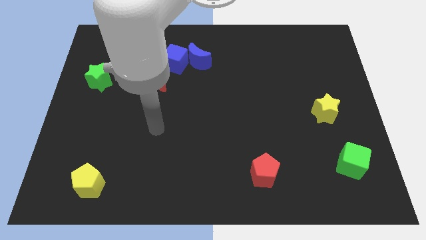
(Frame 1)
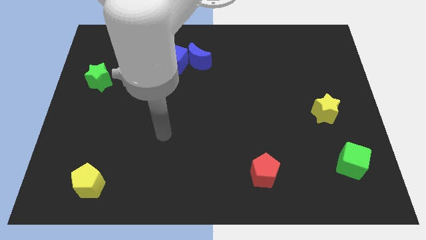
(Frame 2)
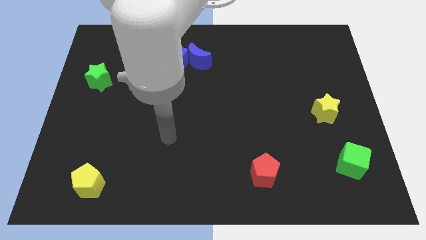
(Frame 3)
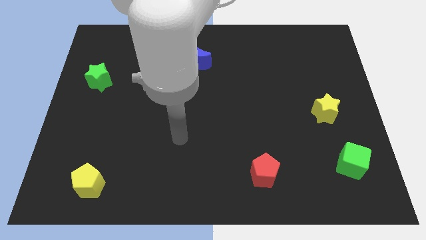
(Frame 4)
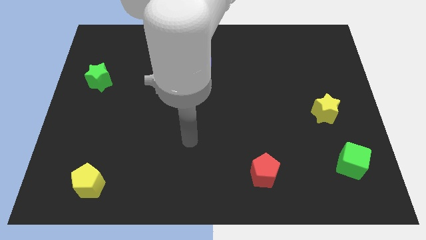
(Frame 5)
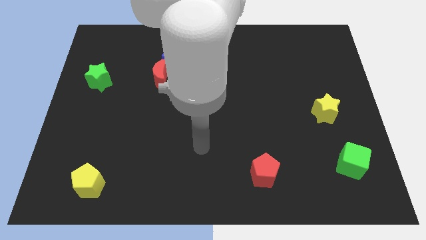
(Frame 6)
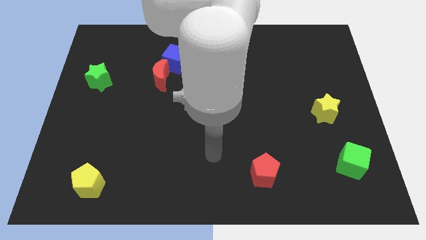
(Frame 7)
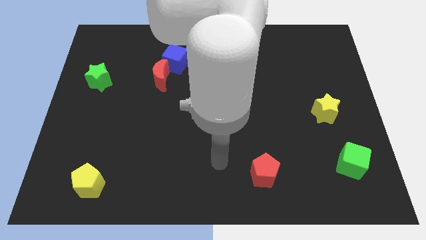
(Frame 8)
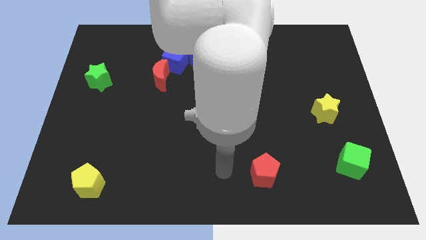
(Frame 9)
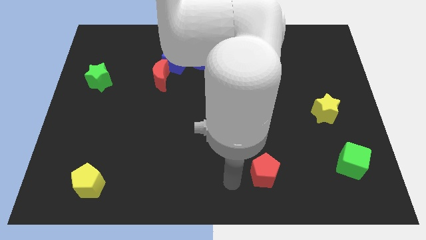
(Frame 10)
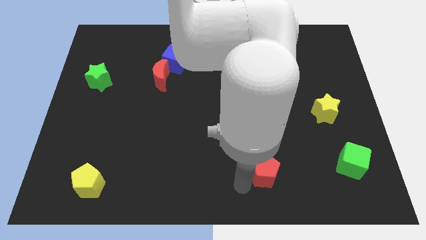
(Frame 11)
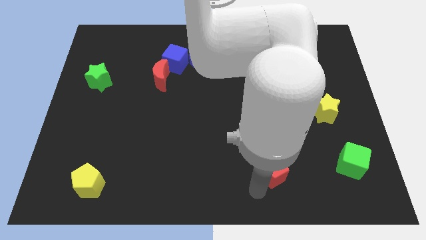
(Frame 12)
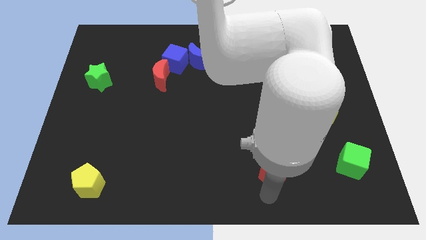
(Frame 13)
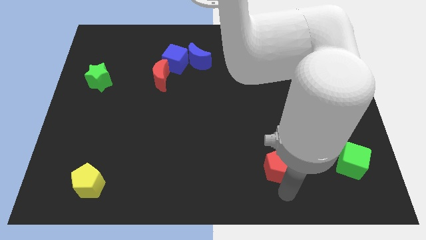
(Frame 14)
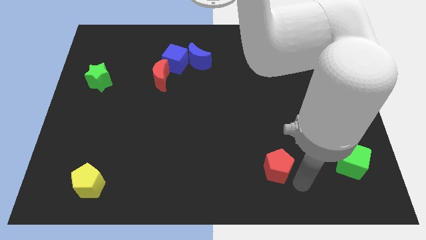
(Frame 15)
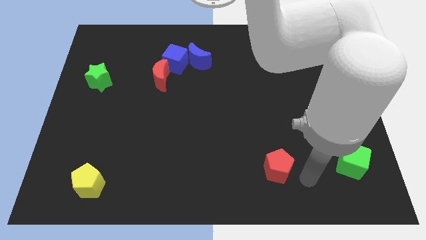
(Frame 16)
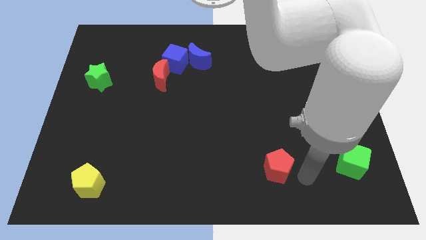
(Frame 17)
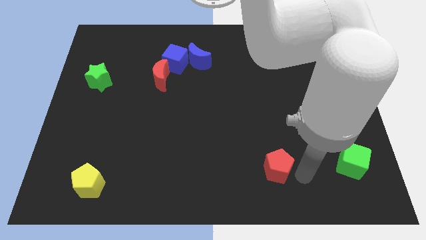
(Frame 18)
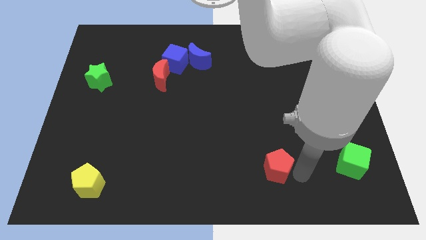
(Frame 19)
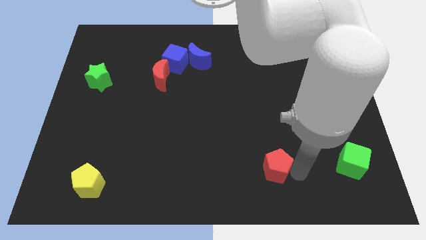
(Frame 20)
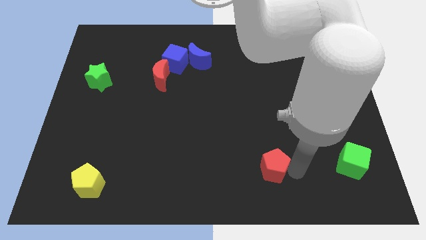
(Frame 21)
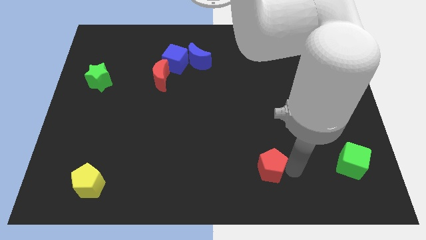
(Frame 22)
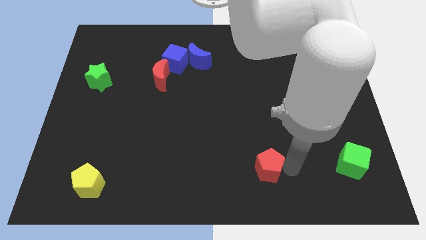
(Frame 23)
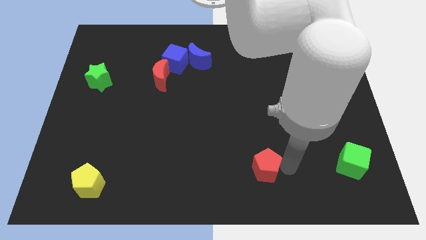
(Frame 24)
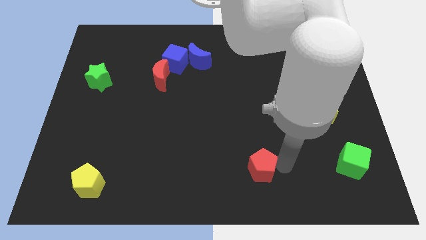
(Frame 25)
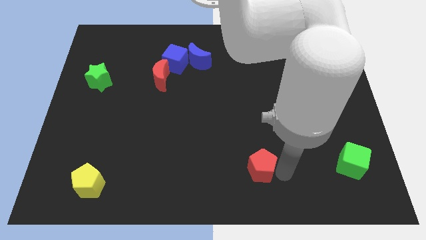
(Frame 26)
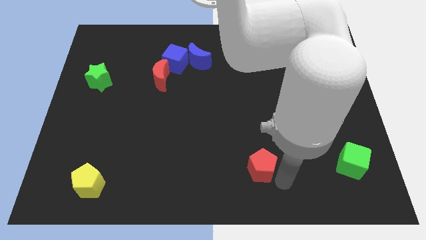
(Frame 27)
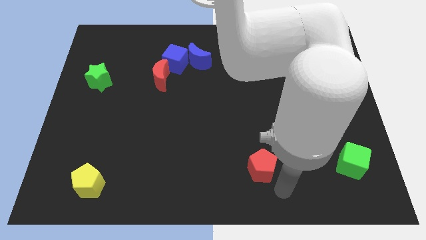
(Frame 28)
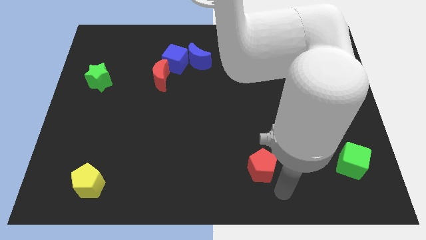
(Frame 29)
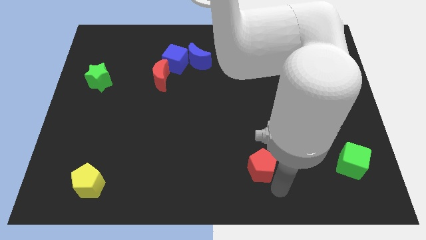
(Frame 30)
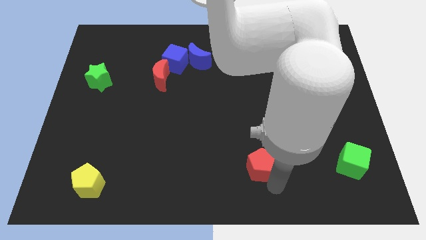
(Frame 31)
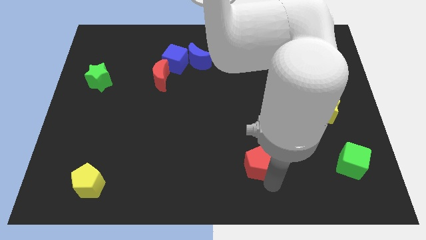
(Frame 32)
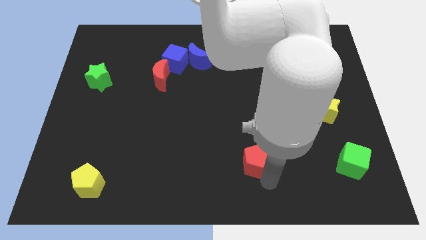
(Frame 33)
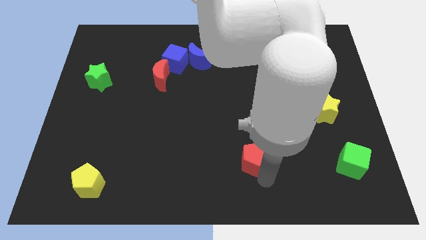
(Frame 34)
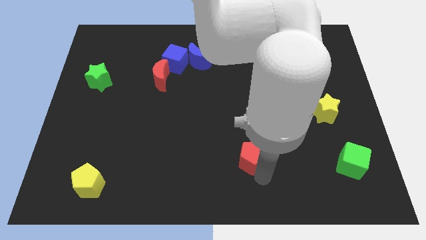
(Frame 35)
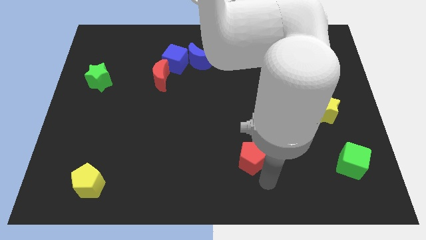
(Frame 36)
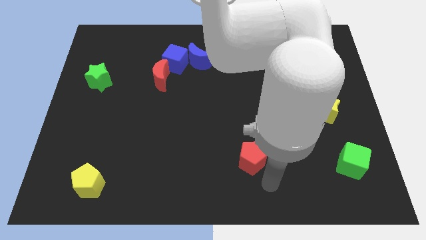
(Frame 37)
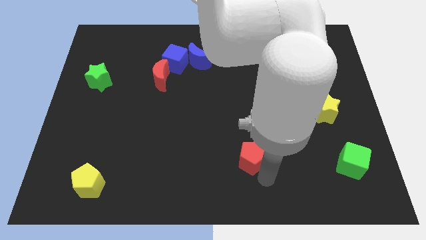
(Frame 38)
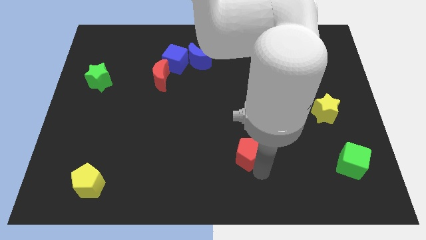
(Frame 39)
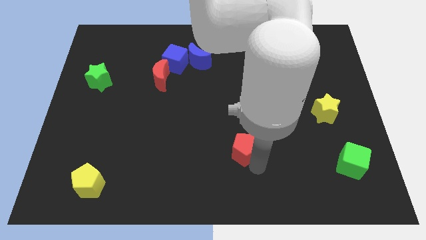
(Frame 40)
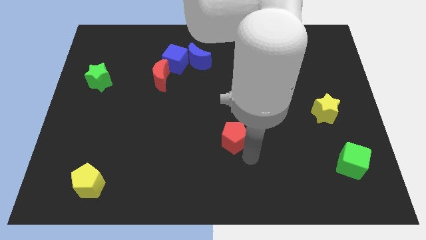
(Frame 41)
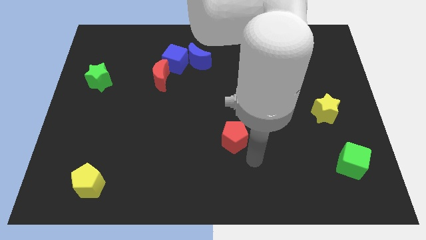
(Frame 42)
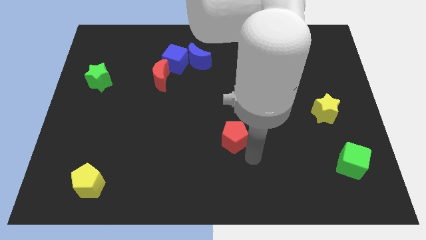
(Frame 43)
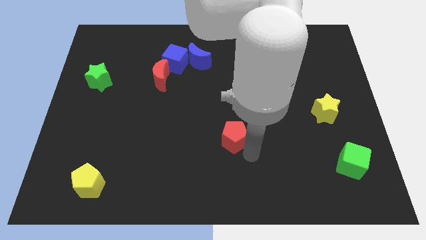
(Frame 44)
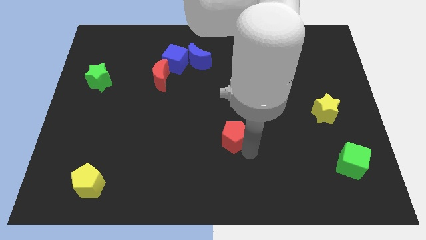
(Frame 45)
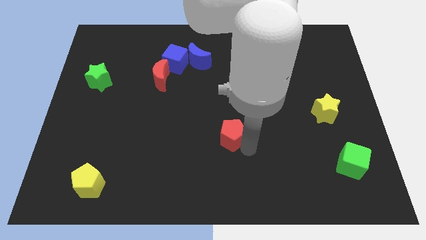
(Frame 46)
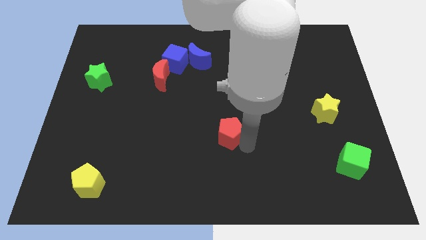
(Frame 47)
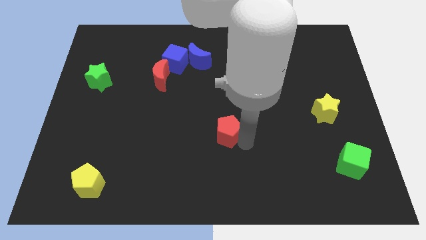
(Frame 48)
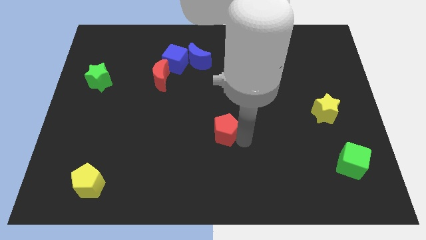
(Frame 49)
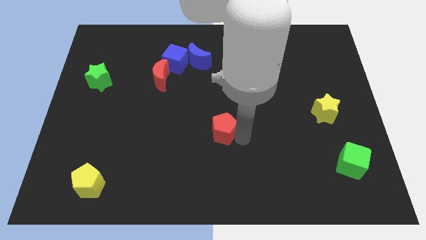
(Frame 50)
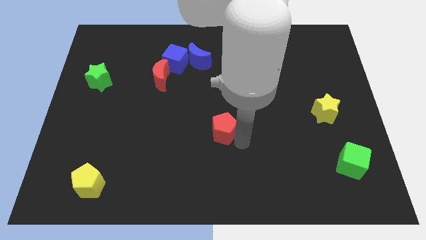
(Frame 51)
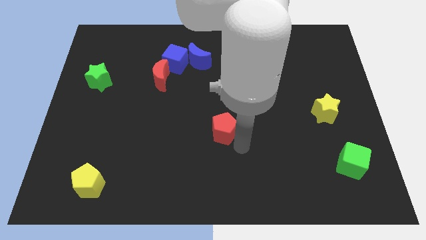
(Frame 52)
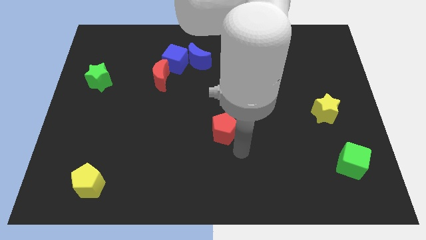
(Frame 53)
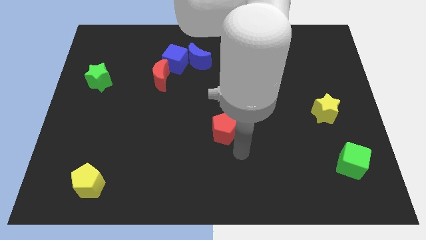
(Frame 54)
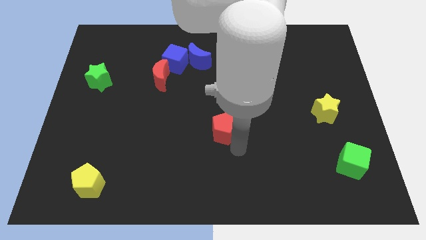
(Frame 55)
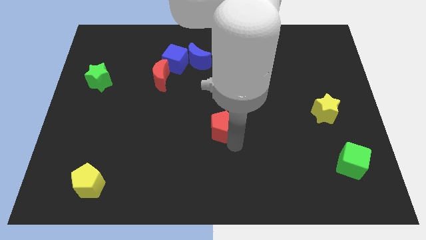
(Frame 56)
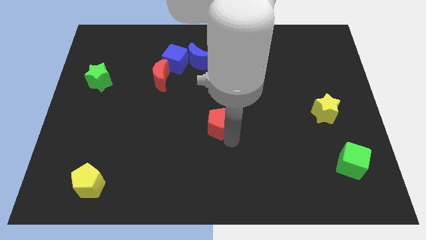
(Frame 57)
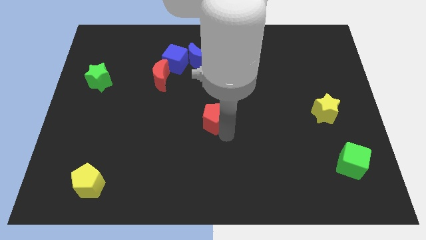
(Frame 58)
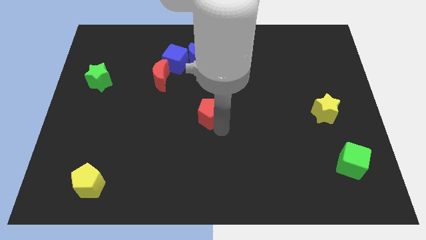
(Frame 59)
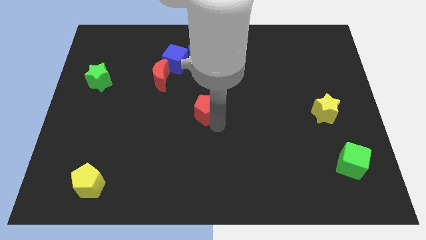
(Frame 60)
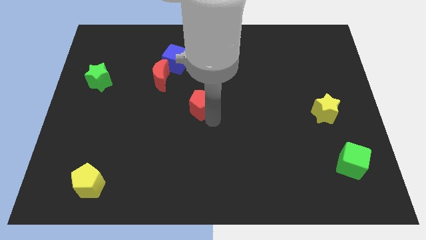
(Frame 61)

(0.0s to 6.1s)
move the red pentagon to the bottom side of the blue moon

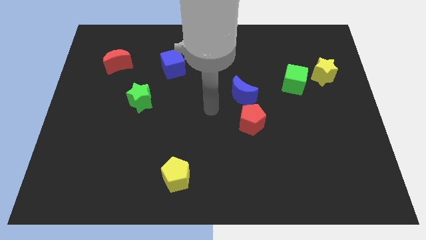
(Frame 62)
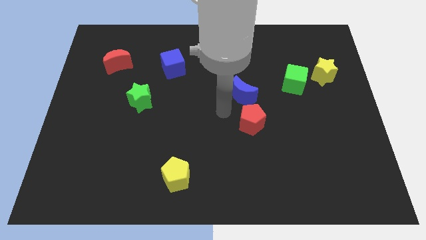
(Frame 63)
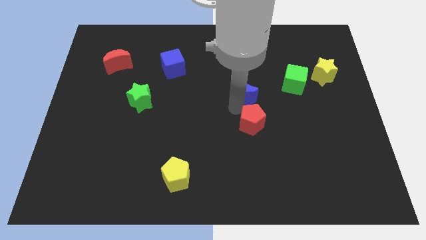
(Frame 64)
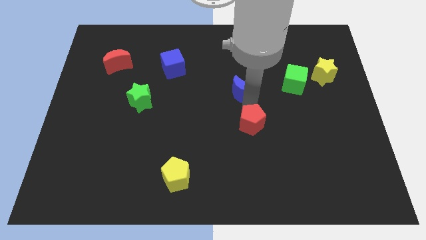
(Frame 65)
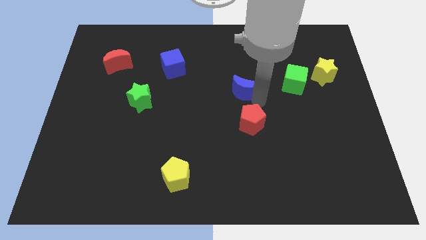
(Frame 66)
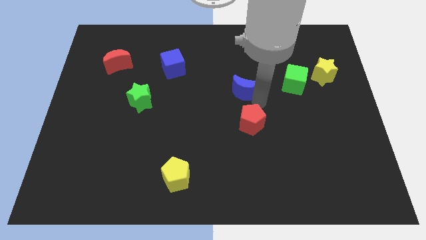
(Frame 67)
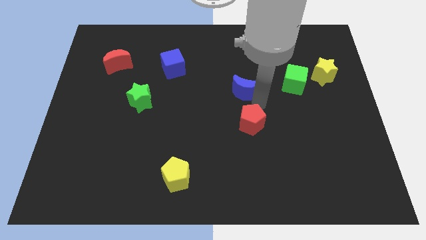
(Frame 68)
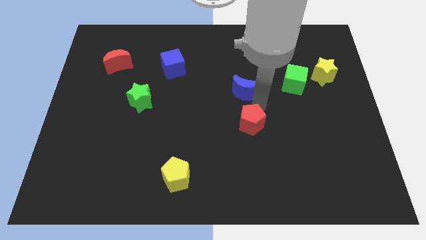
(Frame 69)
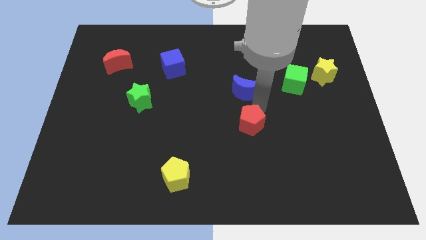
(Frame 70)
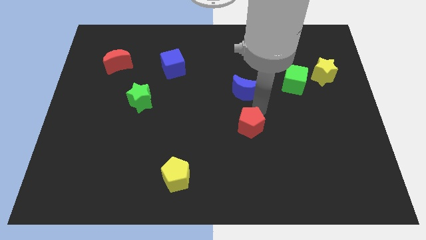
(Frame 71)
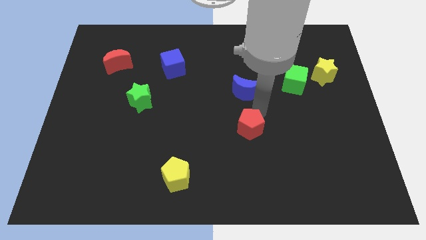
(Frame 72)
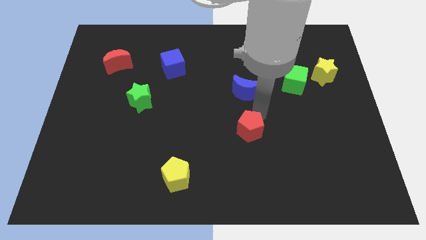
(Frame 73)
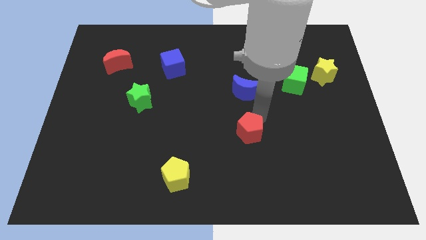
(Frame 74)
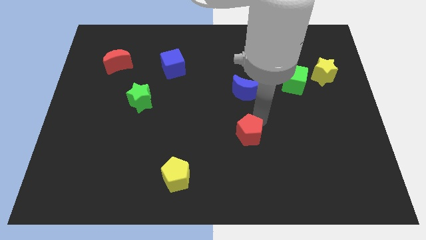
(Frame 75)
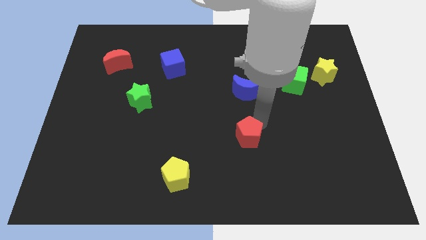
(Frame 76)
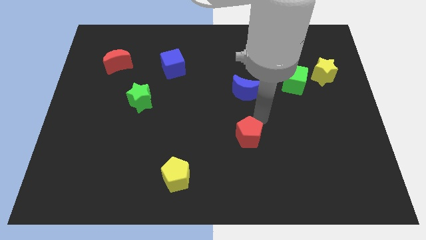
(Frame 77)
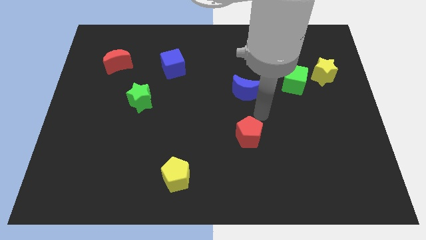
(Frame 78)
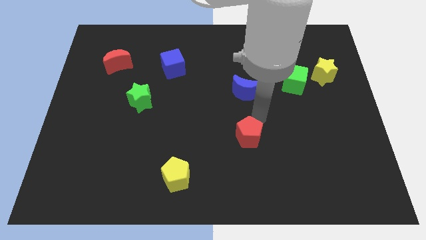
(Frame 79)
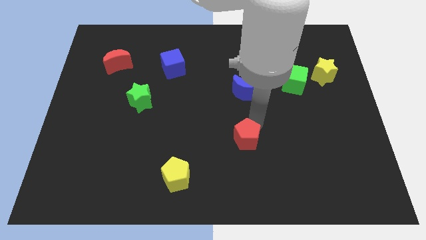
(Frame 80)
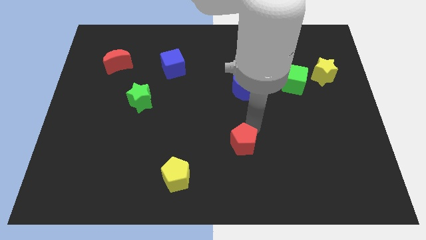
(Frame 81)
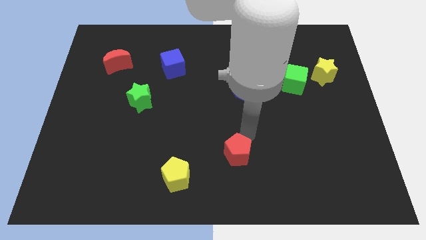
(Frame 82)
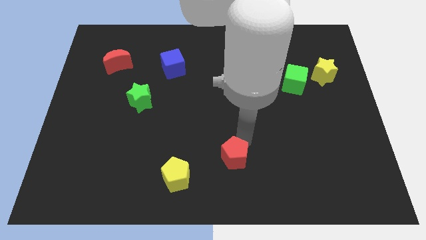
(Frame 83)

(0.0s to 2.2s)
push the red pentagon to the right of the yellow pentagon
